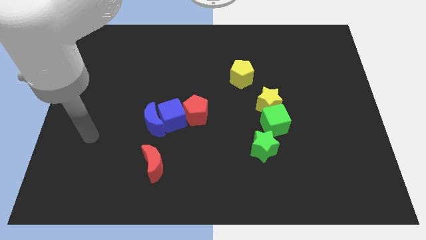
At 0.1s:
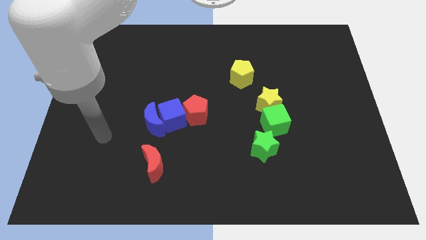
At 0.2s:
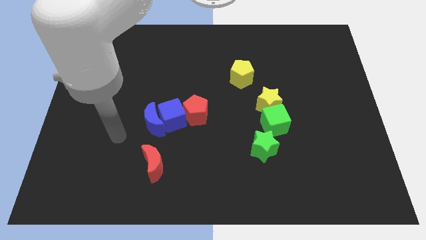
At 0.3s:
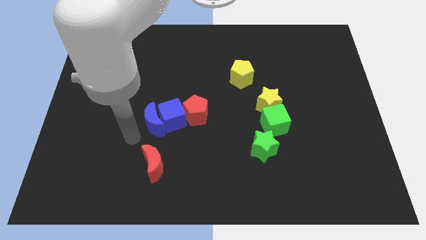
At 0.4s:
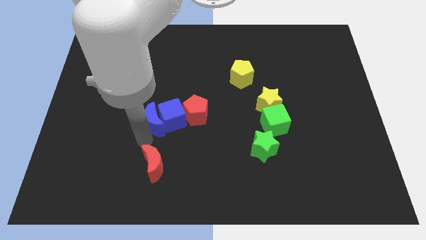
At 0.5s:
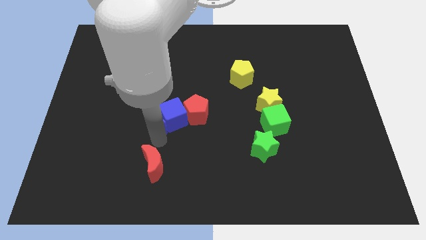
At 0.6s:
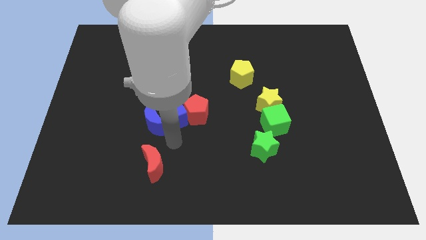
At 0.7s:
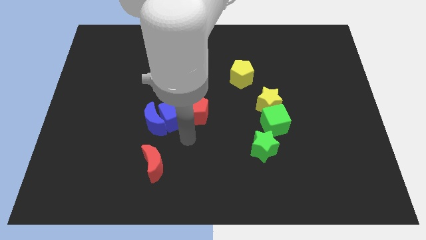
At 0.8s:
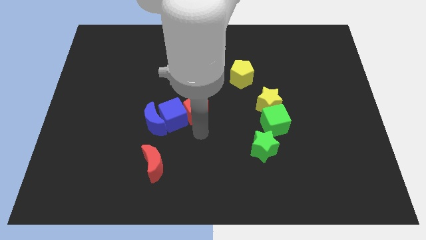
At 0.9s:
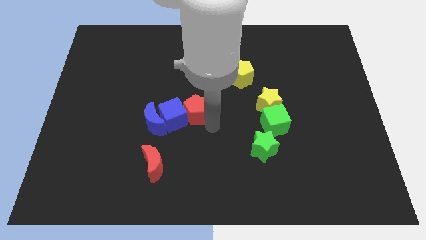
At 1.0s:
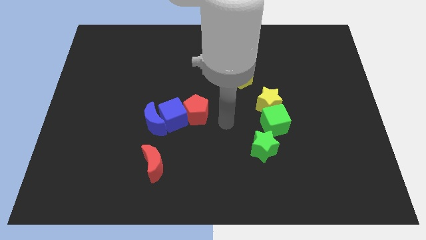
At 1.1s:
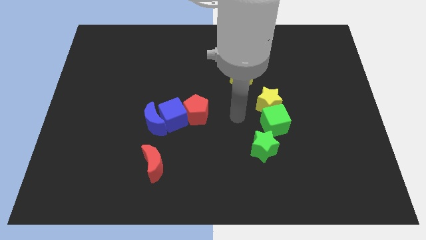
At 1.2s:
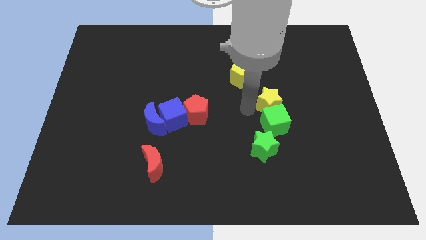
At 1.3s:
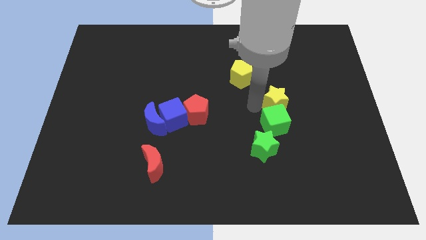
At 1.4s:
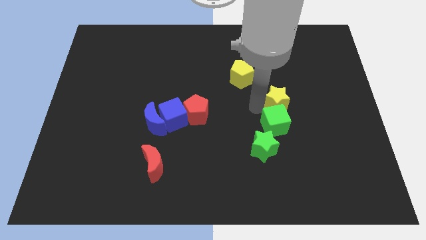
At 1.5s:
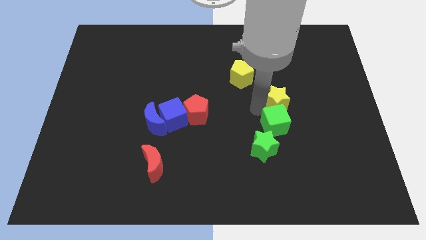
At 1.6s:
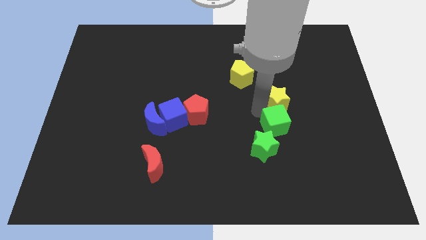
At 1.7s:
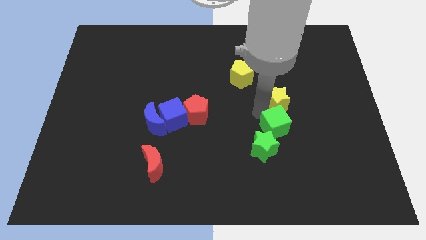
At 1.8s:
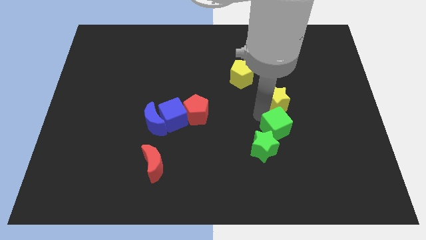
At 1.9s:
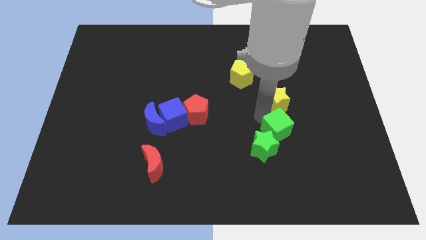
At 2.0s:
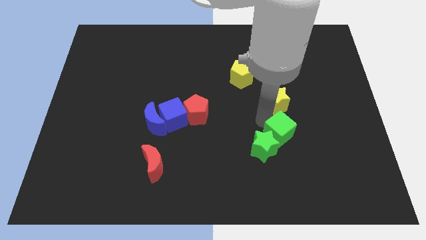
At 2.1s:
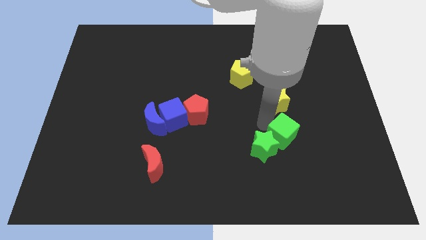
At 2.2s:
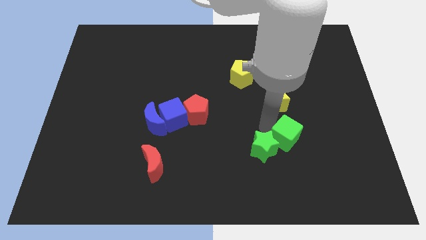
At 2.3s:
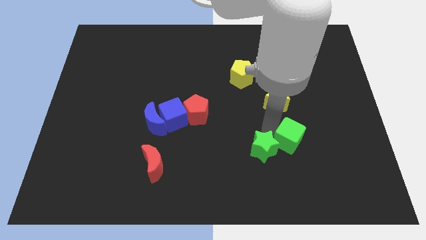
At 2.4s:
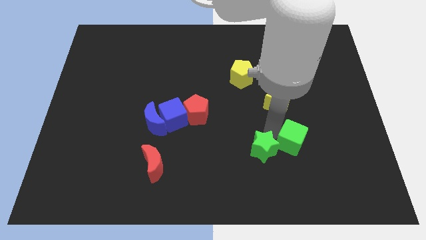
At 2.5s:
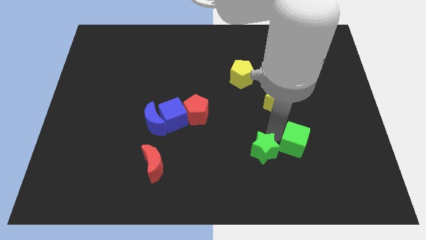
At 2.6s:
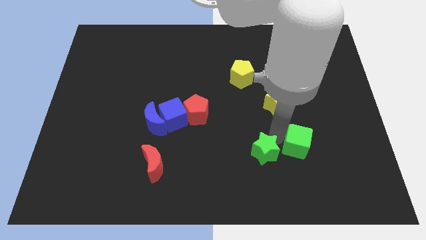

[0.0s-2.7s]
slightly push the green cube down and right diagonally

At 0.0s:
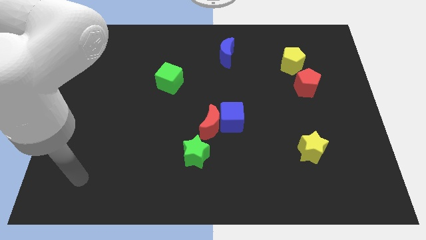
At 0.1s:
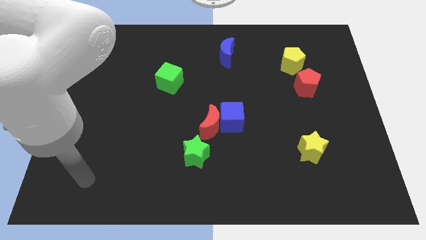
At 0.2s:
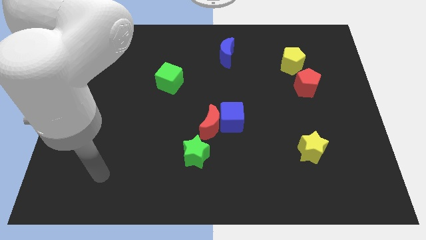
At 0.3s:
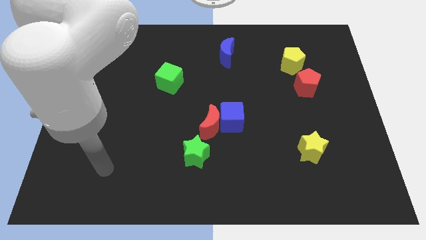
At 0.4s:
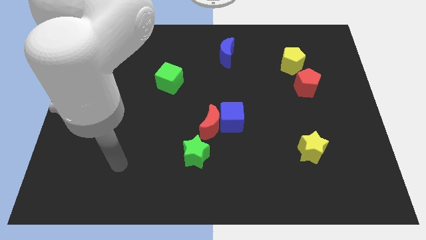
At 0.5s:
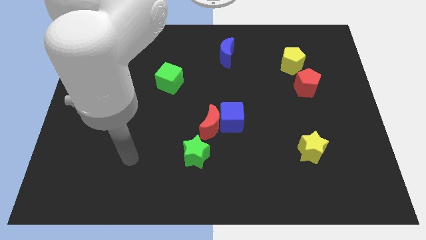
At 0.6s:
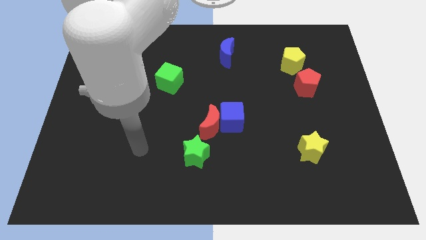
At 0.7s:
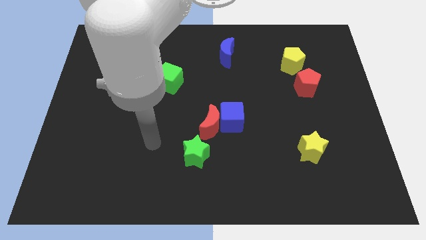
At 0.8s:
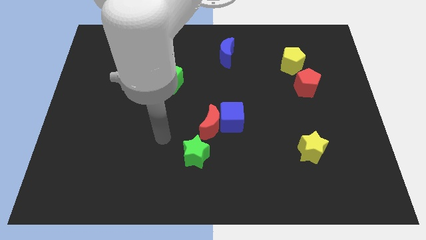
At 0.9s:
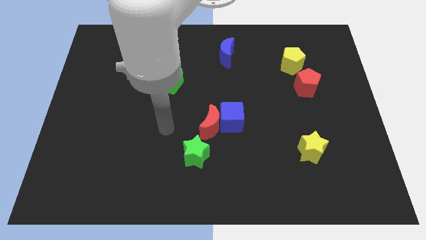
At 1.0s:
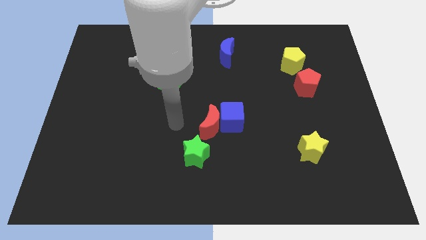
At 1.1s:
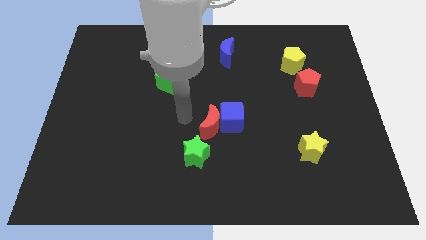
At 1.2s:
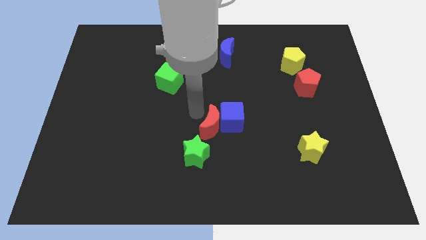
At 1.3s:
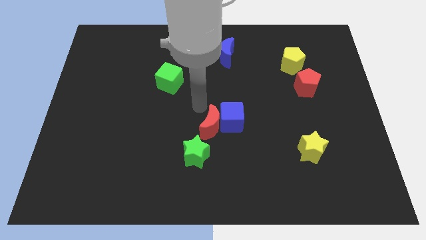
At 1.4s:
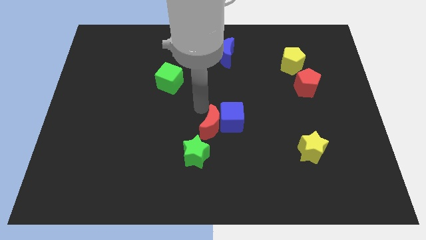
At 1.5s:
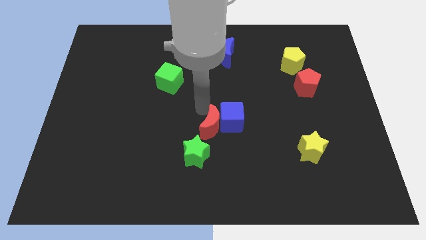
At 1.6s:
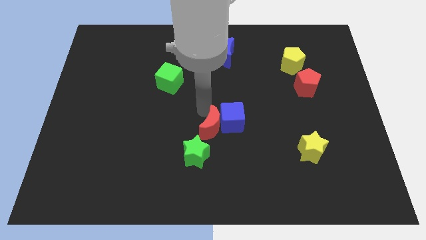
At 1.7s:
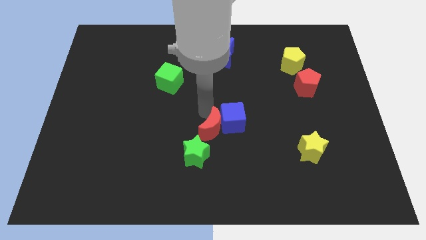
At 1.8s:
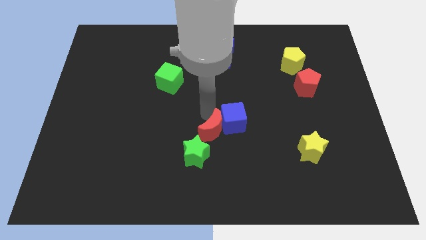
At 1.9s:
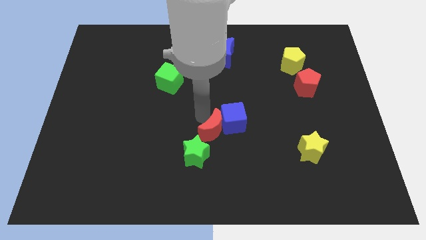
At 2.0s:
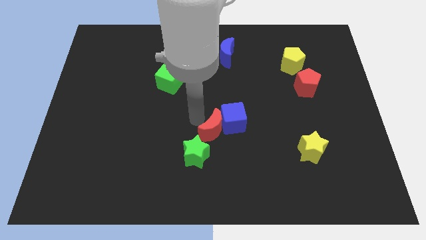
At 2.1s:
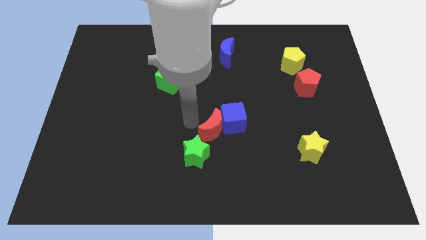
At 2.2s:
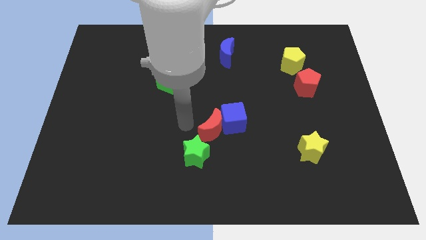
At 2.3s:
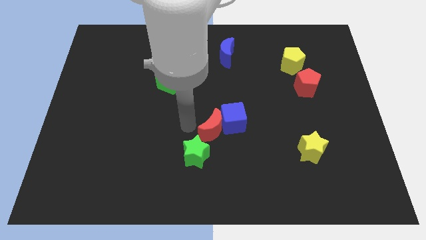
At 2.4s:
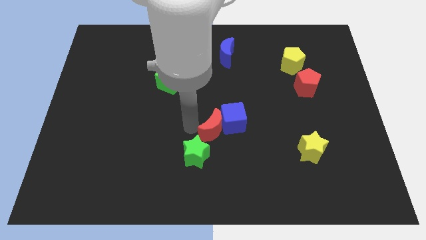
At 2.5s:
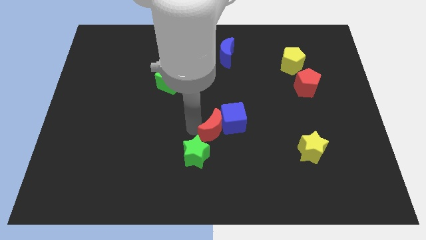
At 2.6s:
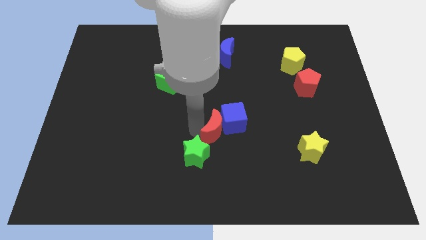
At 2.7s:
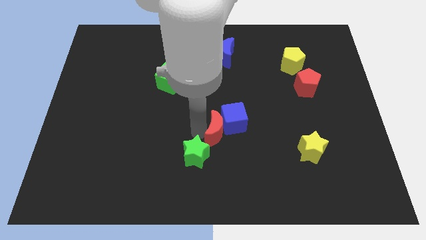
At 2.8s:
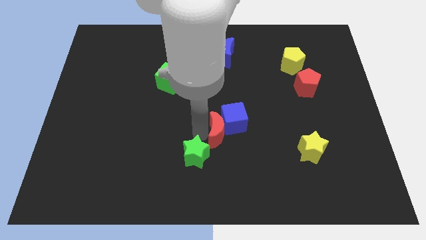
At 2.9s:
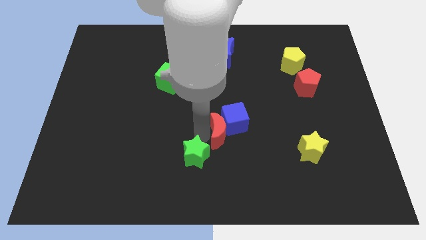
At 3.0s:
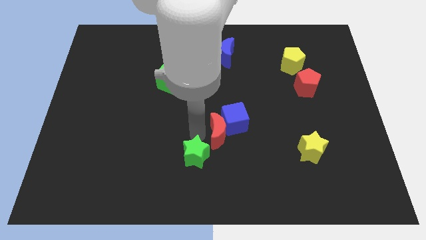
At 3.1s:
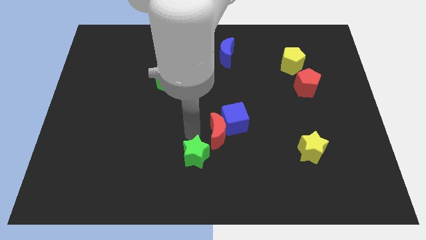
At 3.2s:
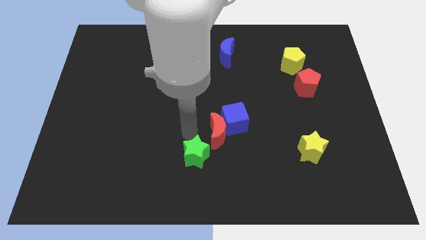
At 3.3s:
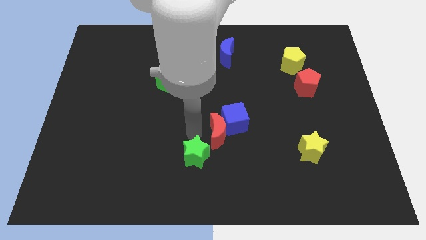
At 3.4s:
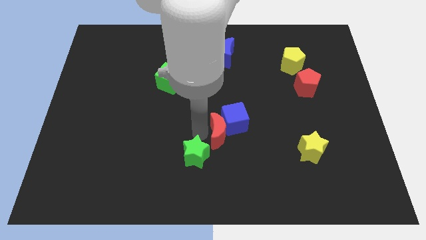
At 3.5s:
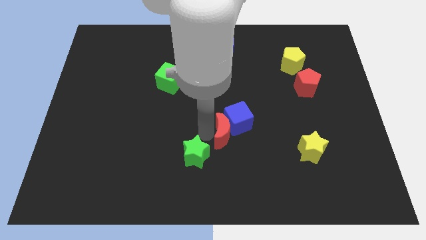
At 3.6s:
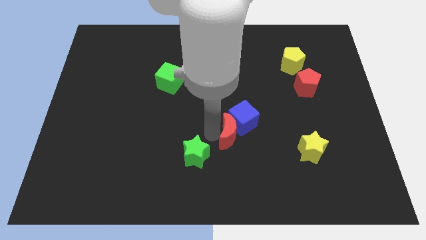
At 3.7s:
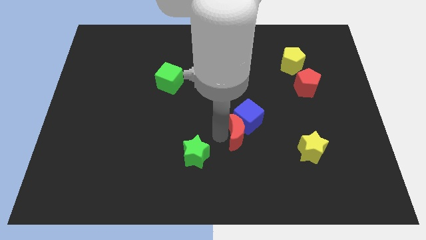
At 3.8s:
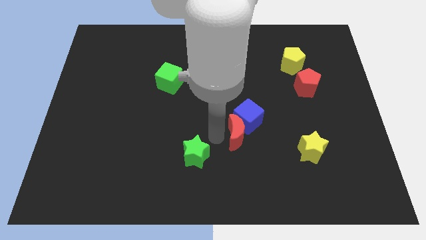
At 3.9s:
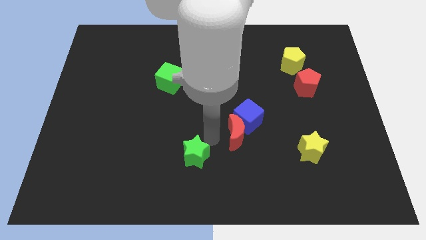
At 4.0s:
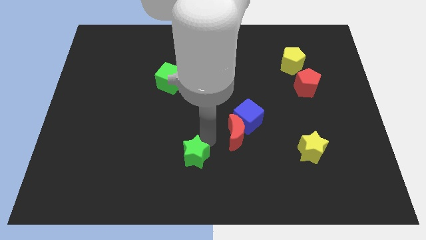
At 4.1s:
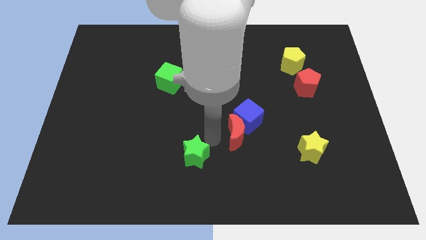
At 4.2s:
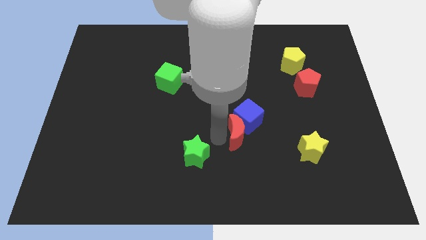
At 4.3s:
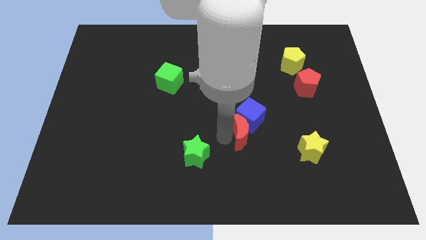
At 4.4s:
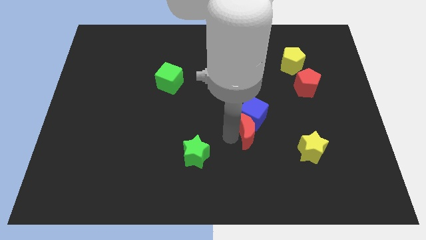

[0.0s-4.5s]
push the red moon somewhat right

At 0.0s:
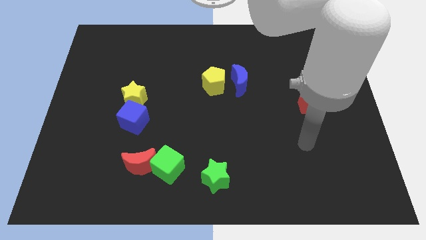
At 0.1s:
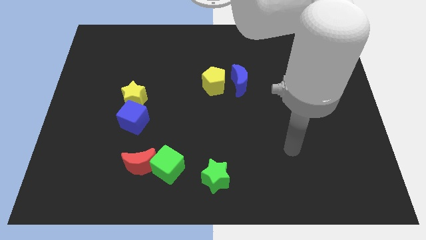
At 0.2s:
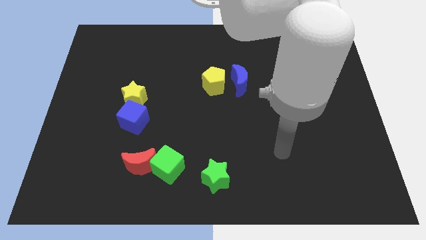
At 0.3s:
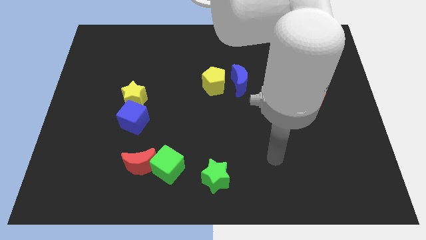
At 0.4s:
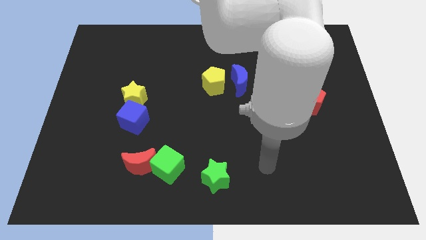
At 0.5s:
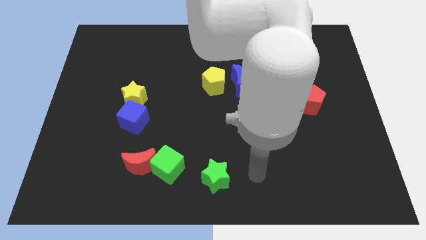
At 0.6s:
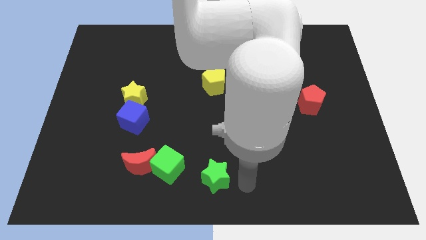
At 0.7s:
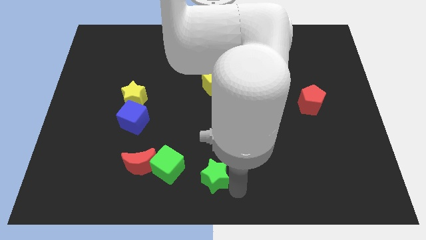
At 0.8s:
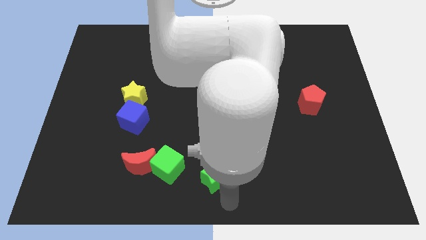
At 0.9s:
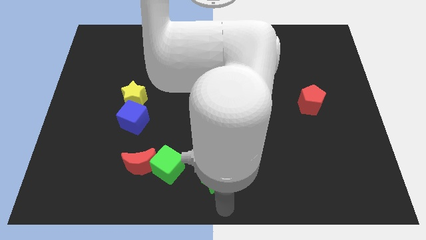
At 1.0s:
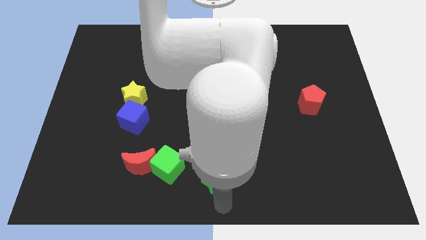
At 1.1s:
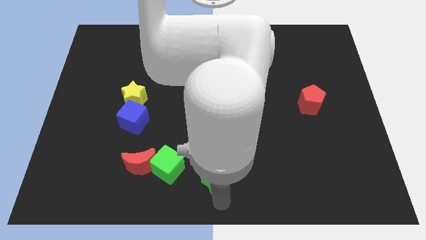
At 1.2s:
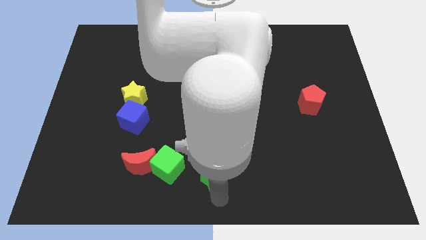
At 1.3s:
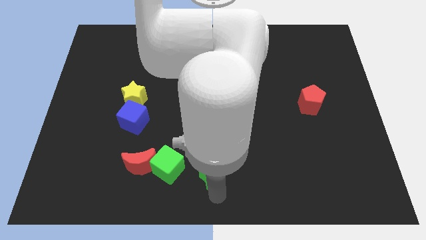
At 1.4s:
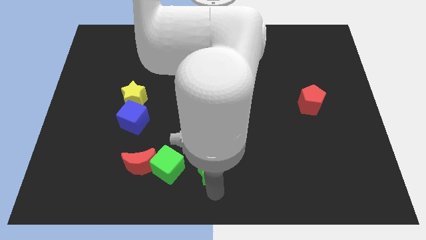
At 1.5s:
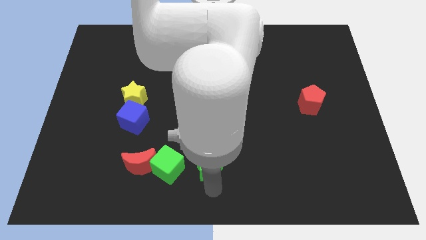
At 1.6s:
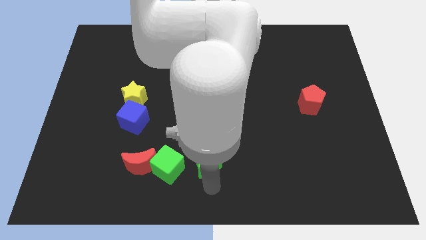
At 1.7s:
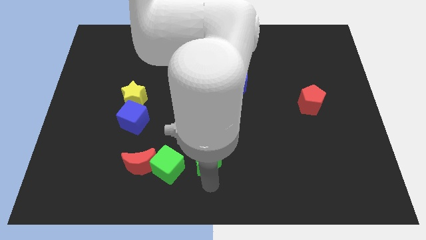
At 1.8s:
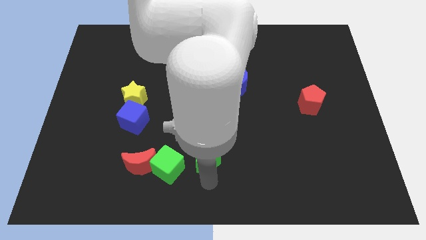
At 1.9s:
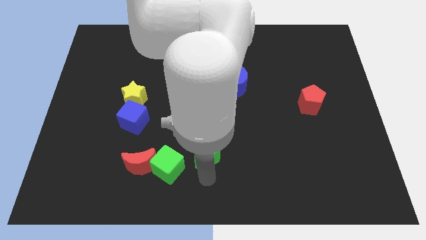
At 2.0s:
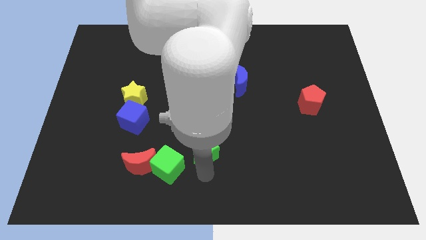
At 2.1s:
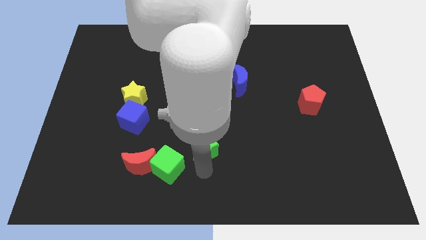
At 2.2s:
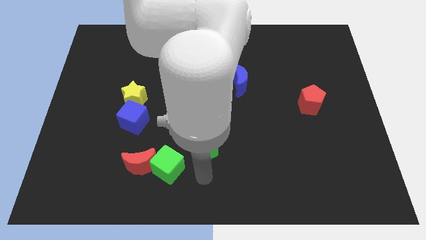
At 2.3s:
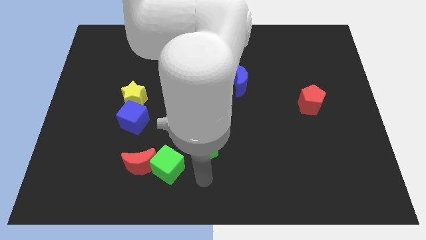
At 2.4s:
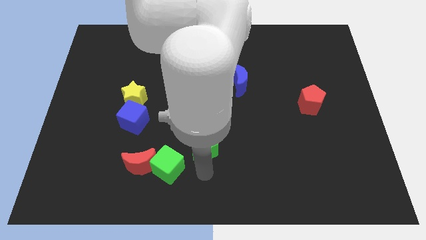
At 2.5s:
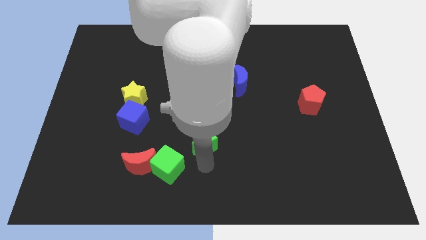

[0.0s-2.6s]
move the green star a little upwards
